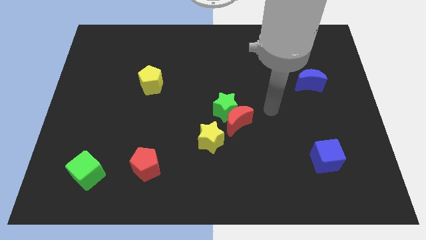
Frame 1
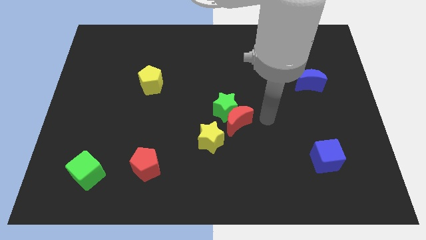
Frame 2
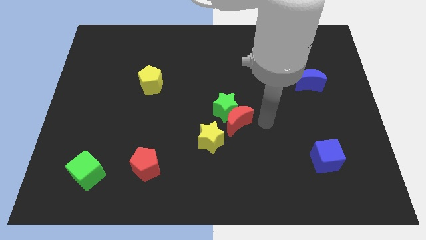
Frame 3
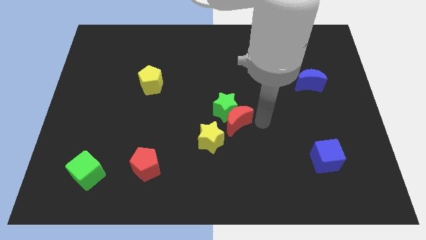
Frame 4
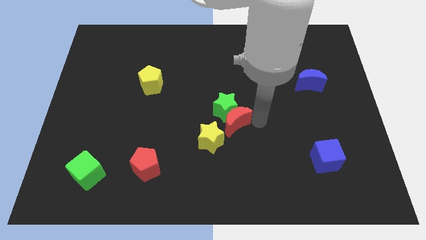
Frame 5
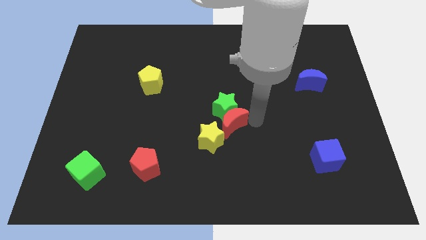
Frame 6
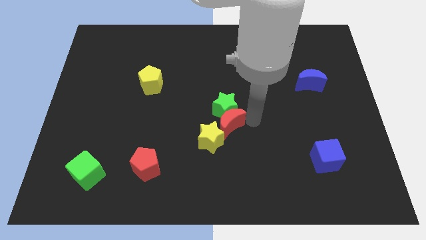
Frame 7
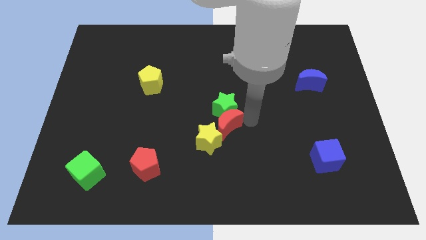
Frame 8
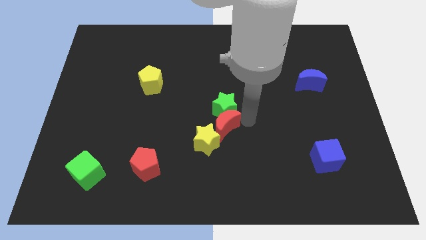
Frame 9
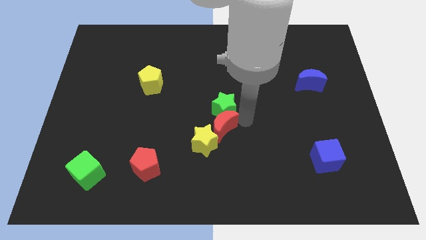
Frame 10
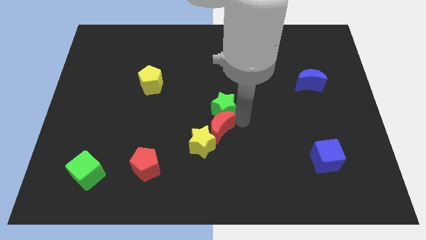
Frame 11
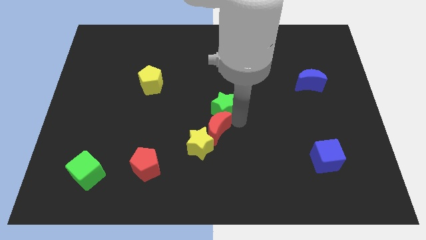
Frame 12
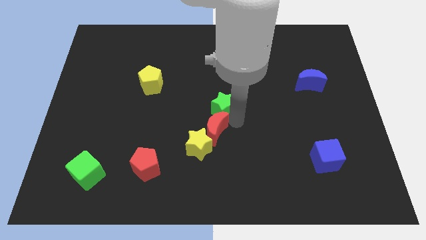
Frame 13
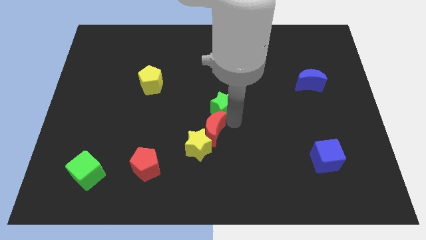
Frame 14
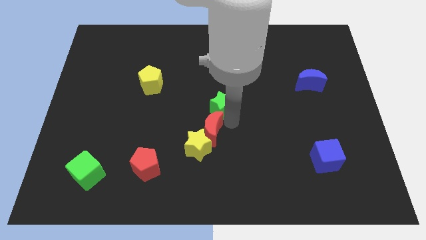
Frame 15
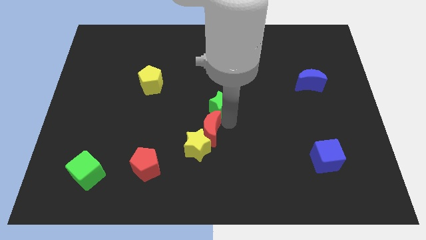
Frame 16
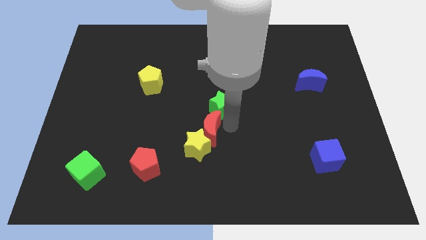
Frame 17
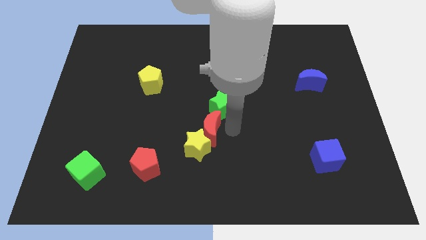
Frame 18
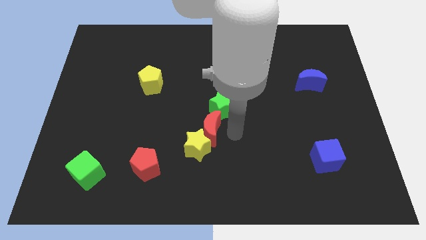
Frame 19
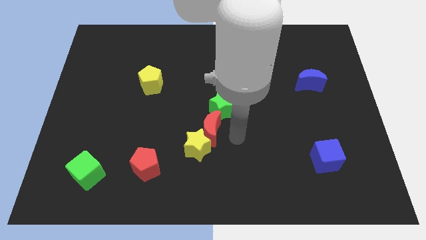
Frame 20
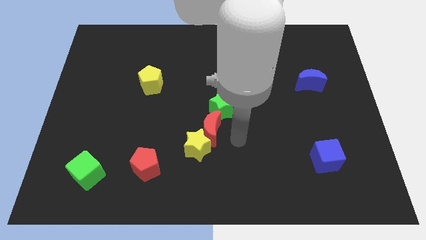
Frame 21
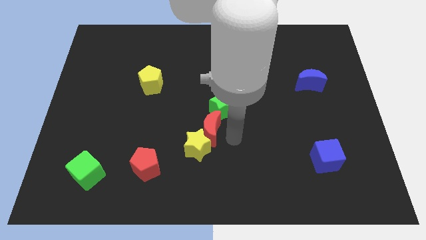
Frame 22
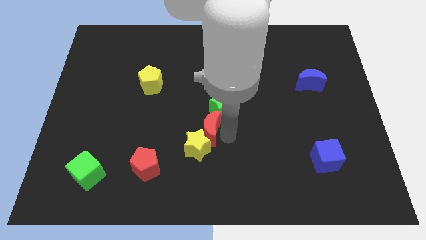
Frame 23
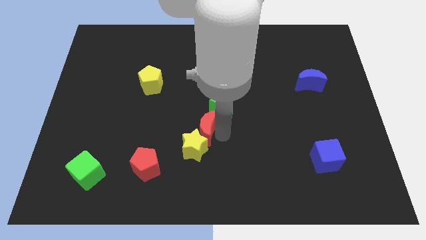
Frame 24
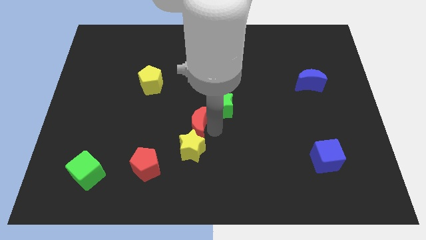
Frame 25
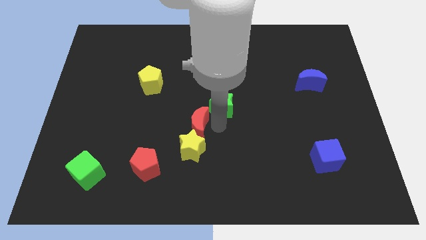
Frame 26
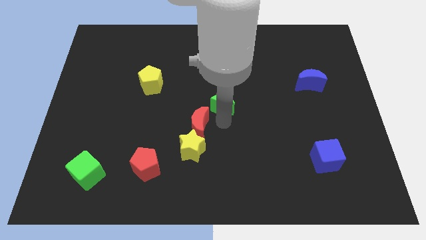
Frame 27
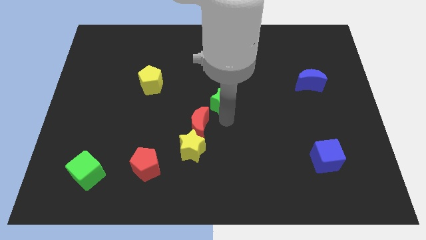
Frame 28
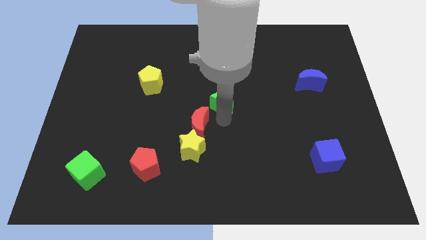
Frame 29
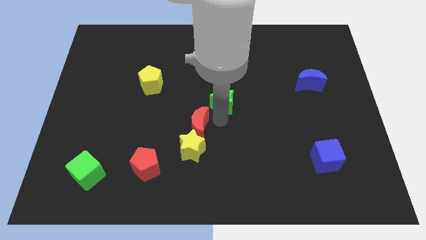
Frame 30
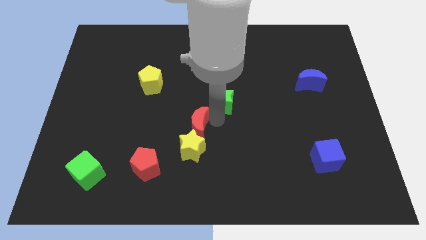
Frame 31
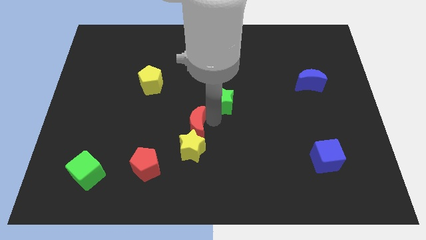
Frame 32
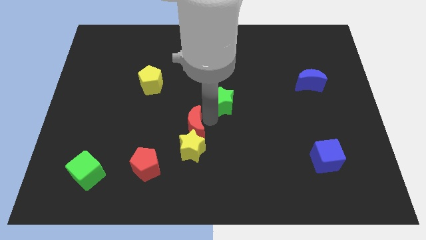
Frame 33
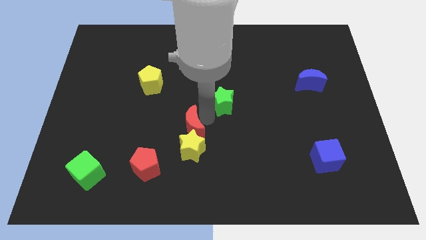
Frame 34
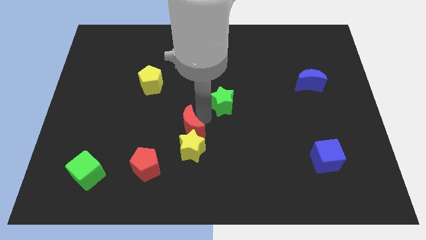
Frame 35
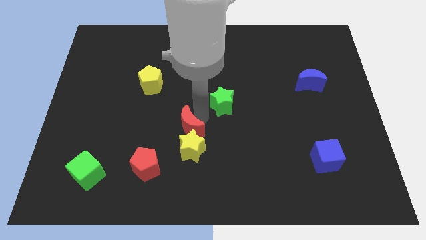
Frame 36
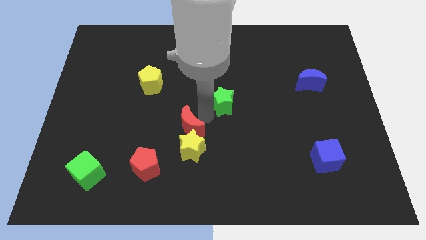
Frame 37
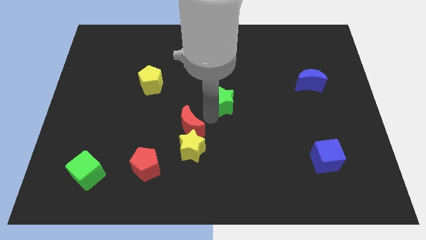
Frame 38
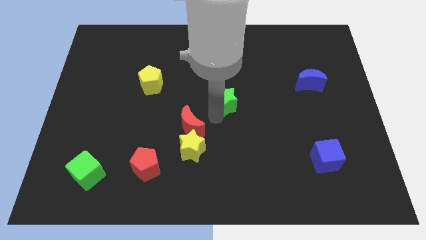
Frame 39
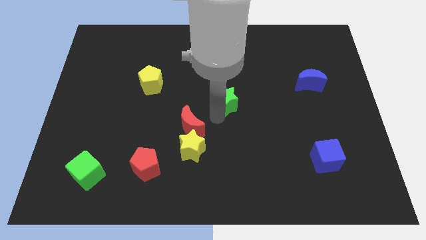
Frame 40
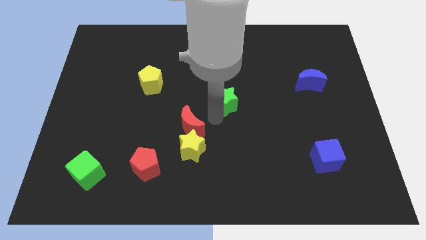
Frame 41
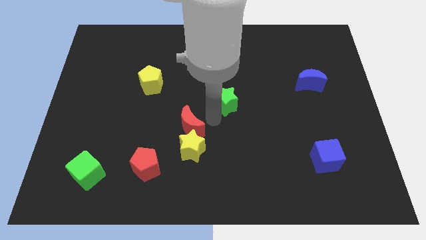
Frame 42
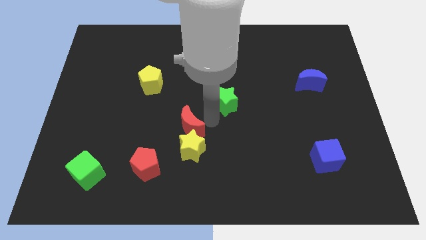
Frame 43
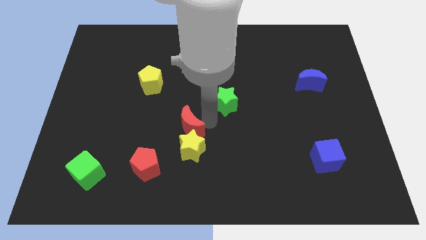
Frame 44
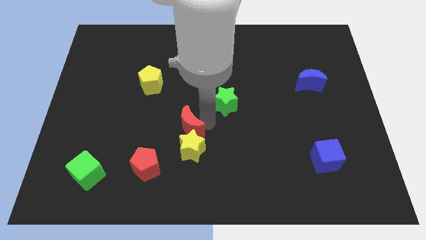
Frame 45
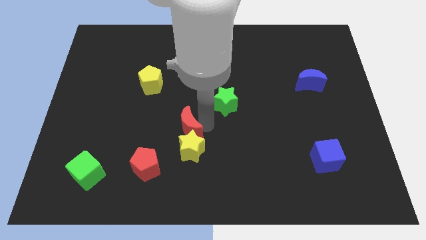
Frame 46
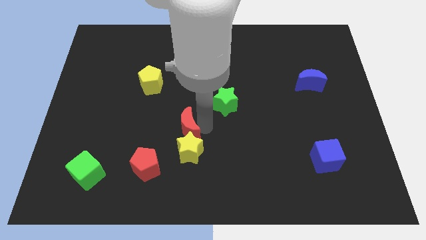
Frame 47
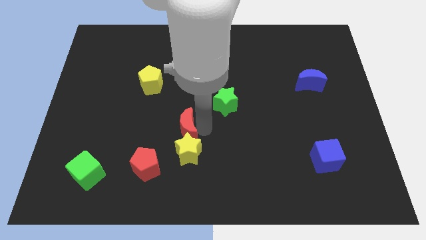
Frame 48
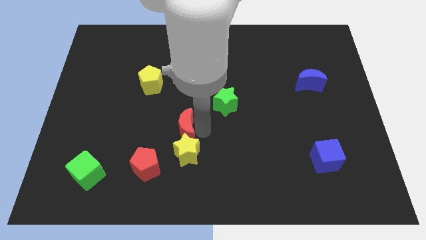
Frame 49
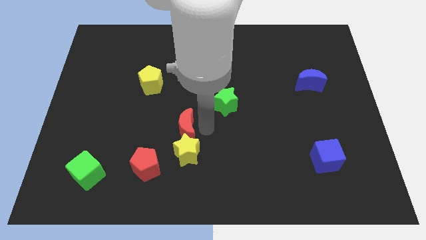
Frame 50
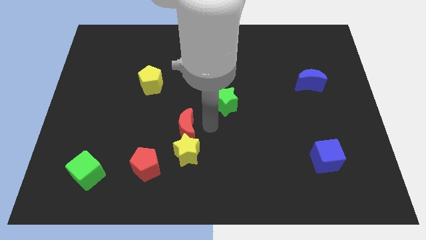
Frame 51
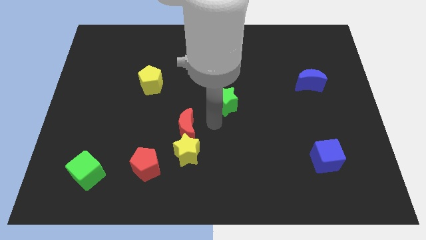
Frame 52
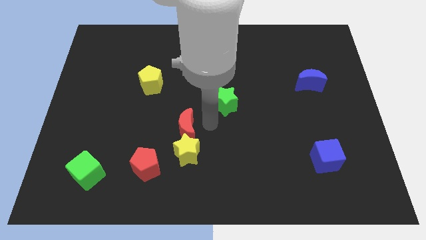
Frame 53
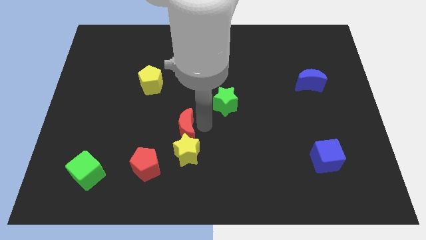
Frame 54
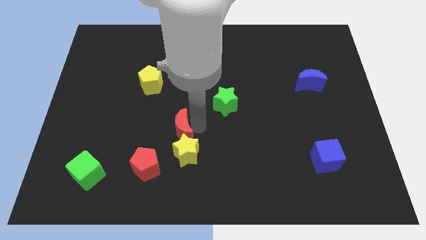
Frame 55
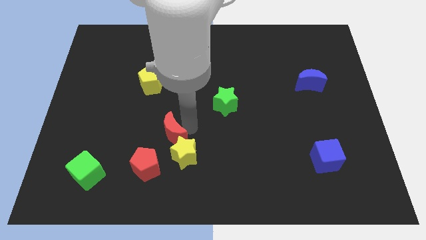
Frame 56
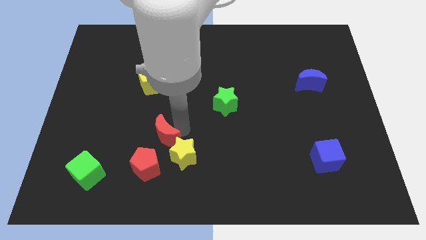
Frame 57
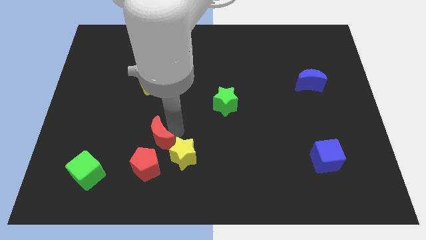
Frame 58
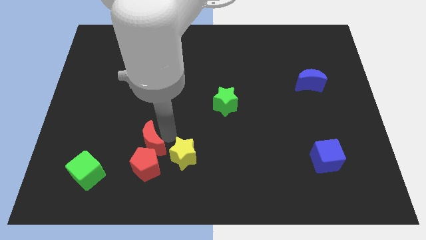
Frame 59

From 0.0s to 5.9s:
slide the red moon to the top left side of the red pentagon
